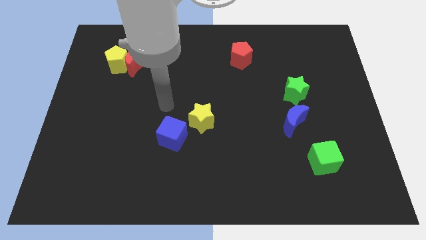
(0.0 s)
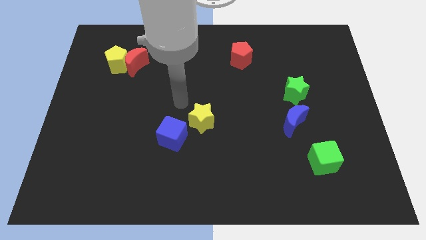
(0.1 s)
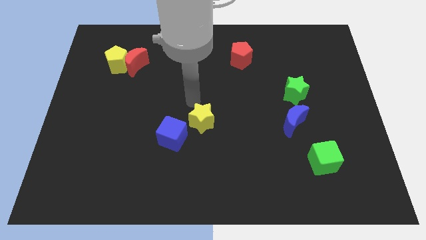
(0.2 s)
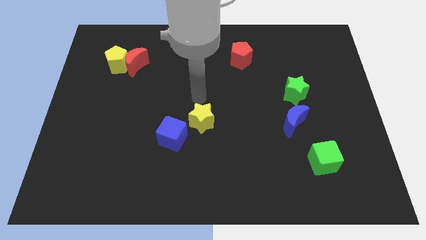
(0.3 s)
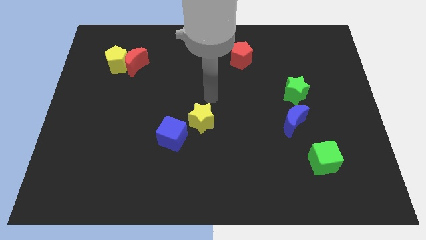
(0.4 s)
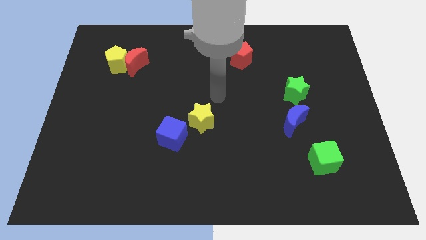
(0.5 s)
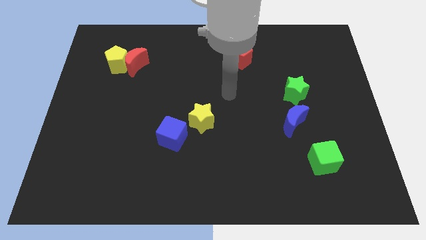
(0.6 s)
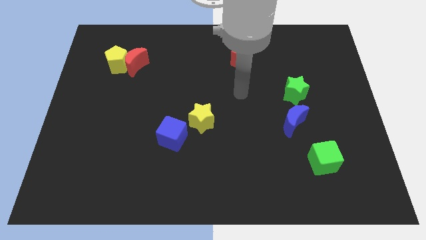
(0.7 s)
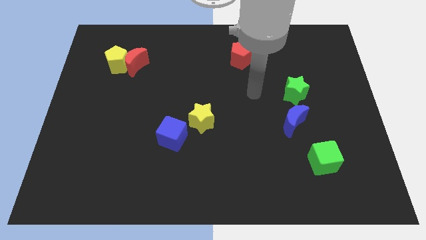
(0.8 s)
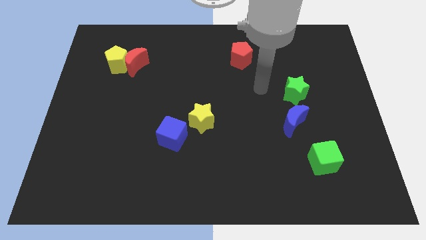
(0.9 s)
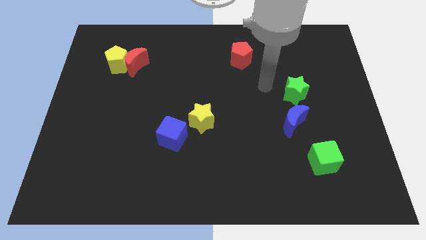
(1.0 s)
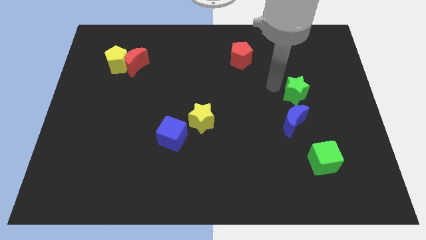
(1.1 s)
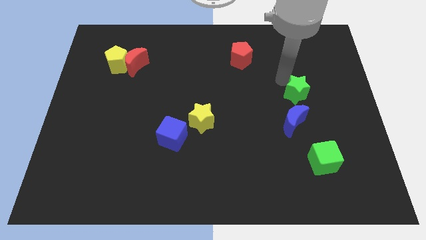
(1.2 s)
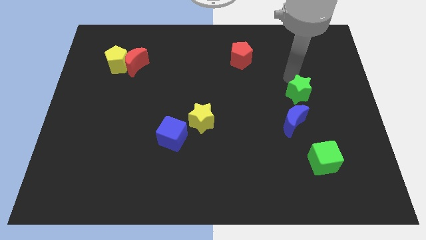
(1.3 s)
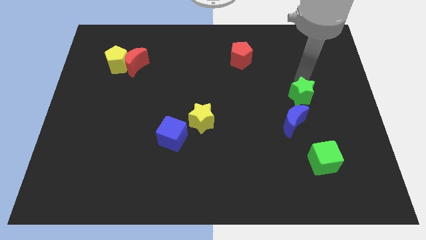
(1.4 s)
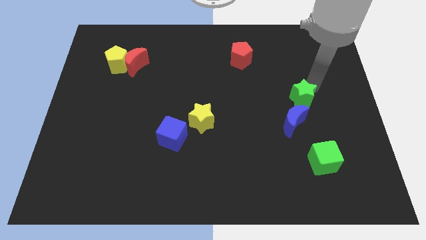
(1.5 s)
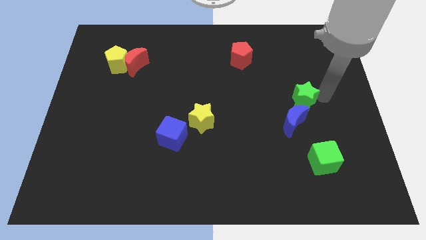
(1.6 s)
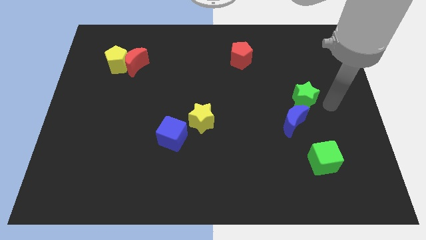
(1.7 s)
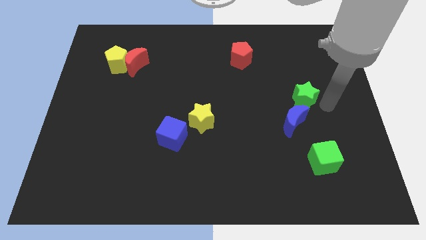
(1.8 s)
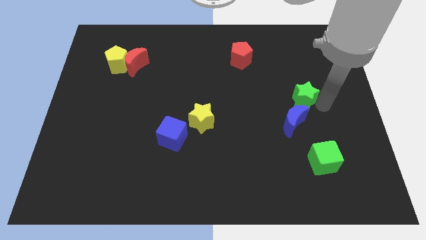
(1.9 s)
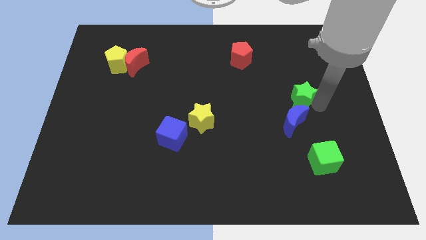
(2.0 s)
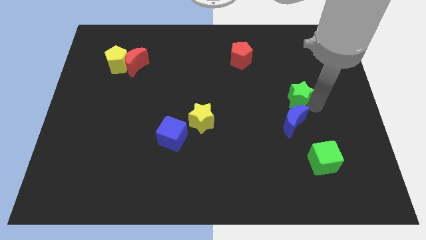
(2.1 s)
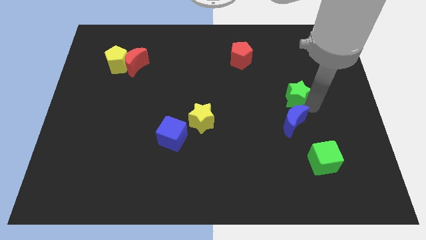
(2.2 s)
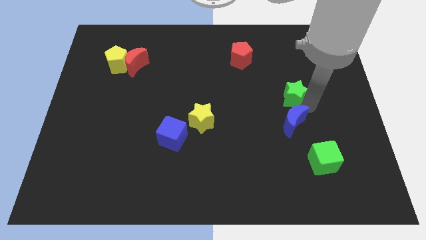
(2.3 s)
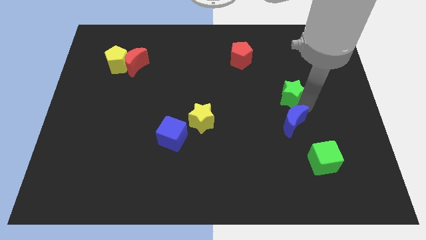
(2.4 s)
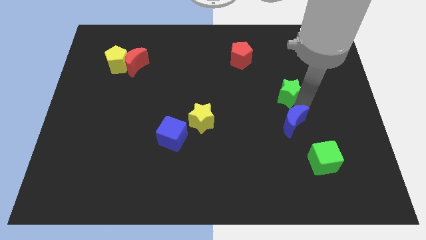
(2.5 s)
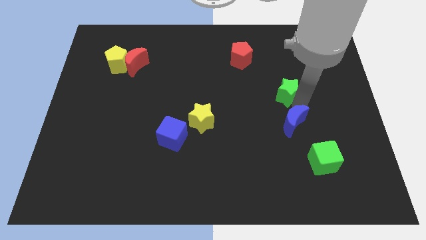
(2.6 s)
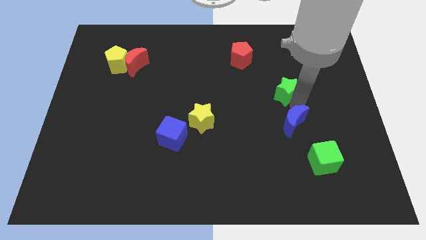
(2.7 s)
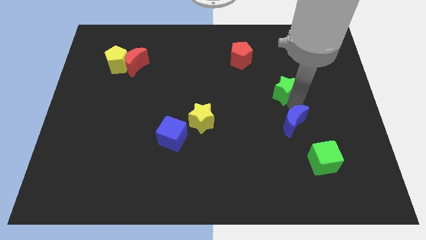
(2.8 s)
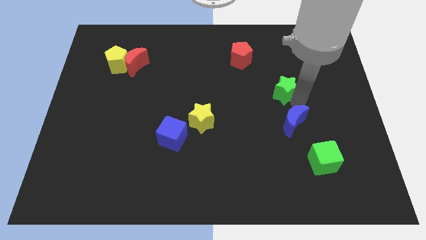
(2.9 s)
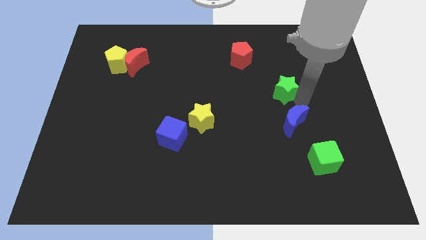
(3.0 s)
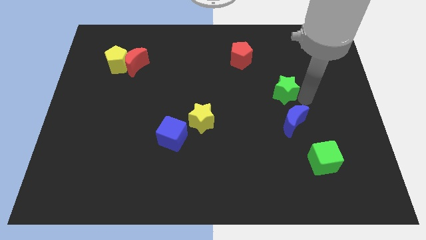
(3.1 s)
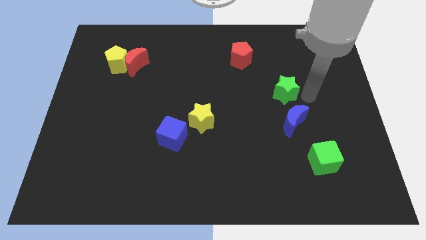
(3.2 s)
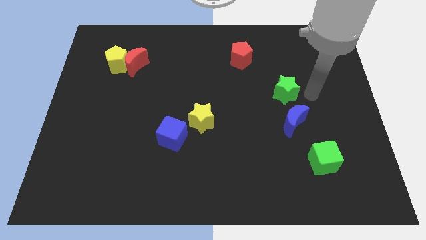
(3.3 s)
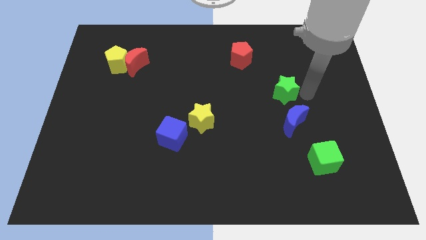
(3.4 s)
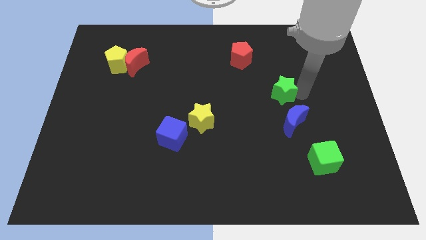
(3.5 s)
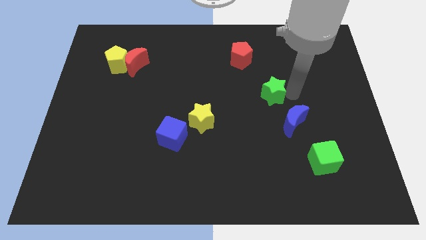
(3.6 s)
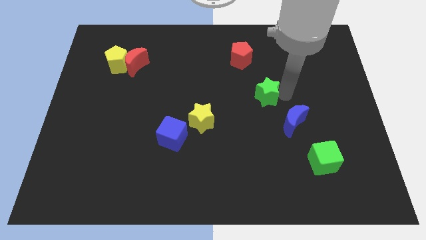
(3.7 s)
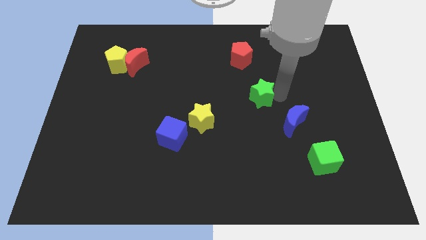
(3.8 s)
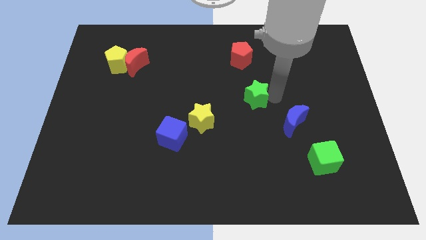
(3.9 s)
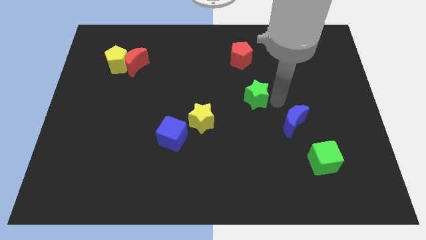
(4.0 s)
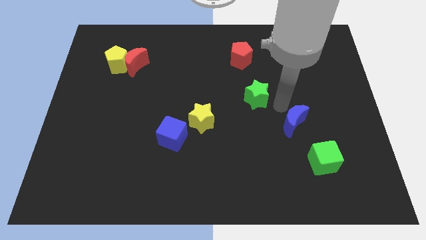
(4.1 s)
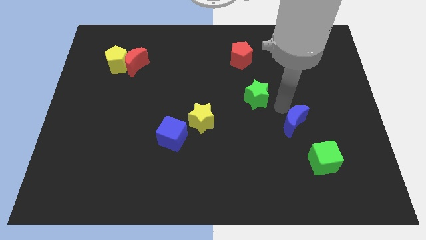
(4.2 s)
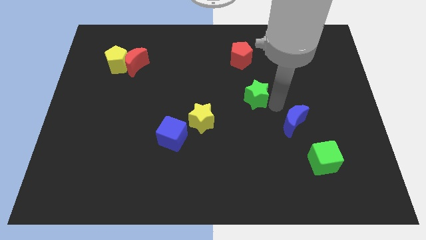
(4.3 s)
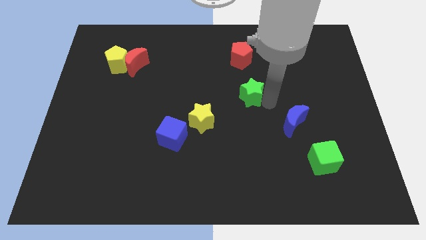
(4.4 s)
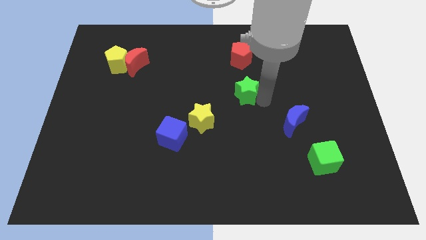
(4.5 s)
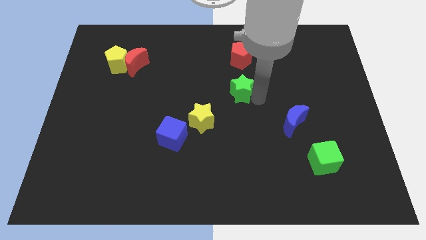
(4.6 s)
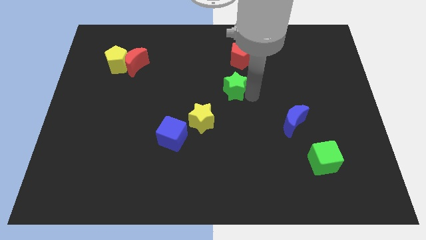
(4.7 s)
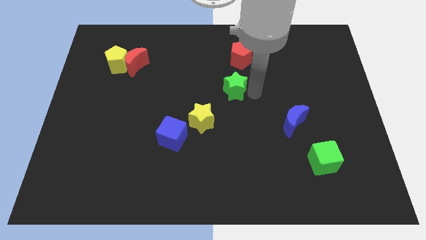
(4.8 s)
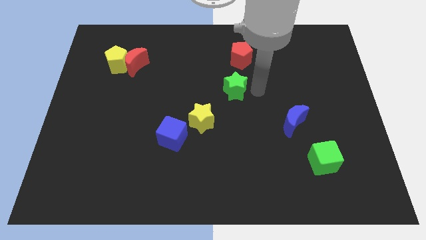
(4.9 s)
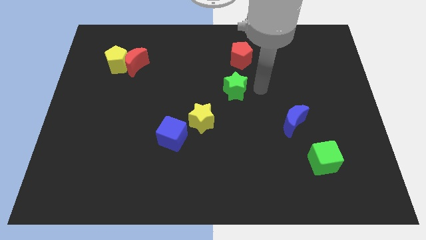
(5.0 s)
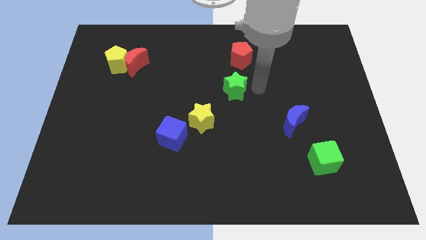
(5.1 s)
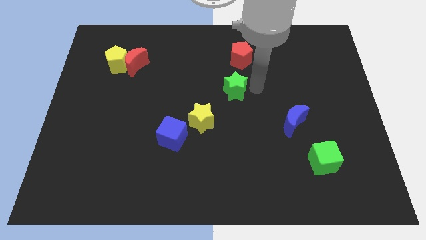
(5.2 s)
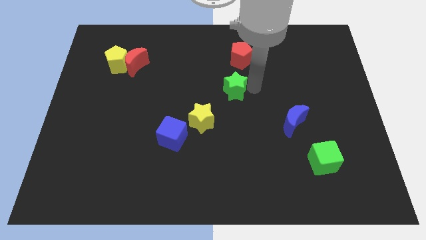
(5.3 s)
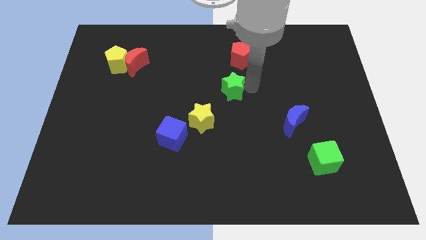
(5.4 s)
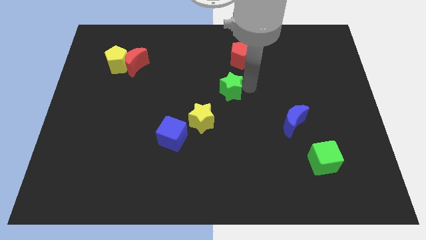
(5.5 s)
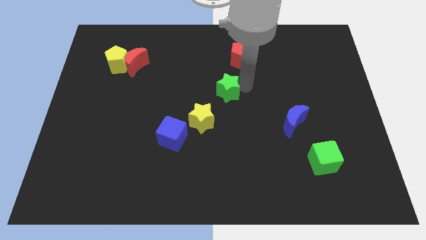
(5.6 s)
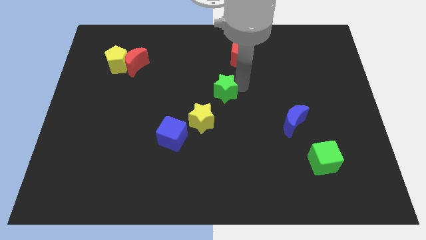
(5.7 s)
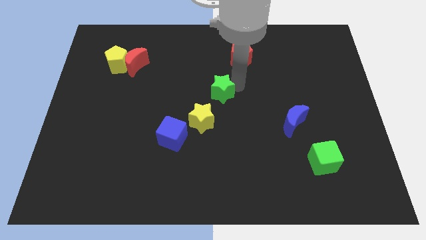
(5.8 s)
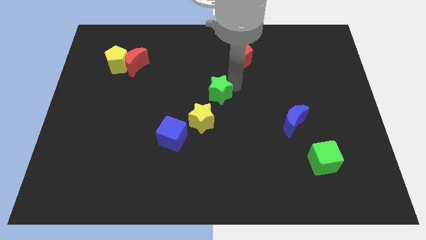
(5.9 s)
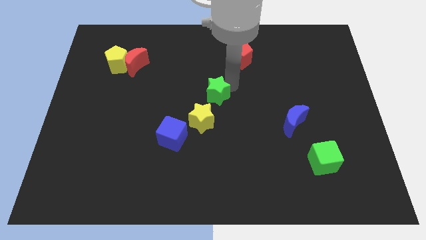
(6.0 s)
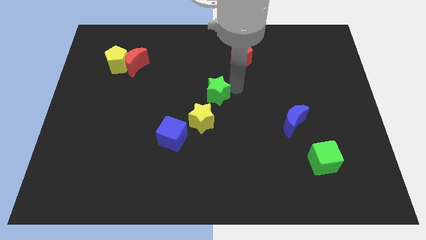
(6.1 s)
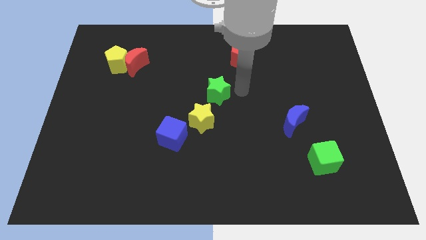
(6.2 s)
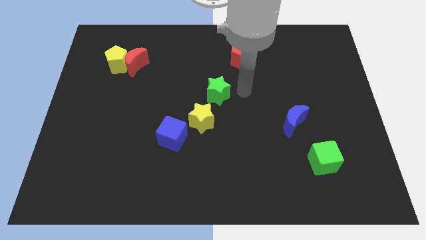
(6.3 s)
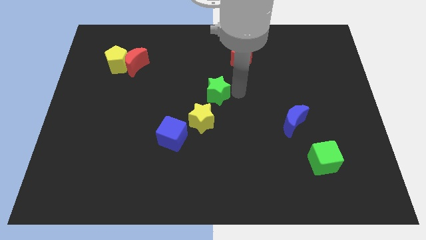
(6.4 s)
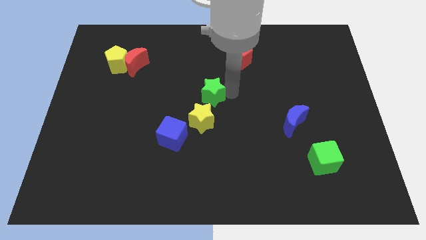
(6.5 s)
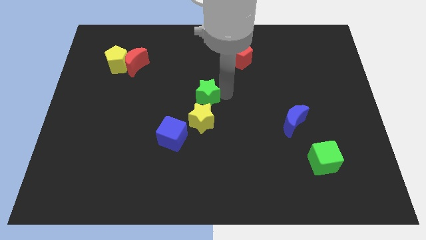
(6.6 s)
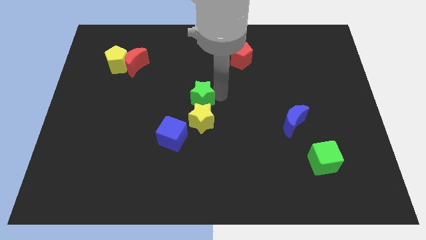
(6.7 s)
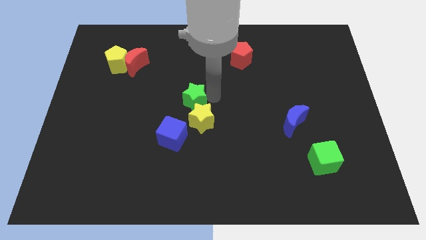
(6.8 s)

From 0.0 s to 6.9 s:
push the green star above the blue cube

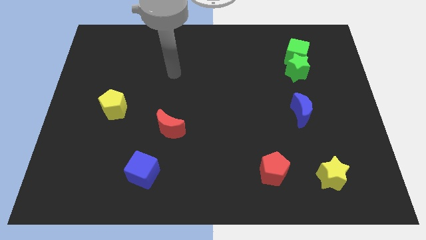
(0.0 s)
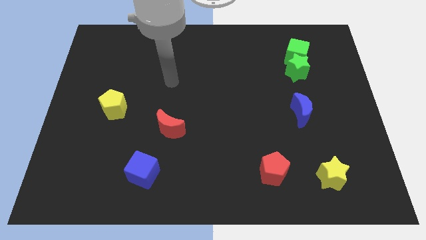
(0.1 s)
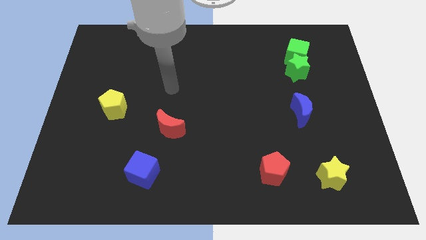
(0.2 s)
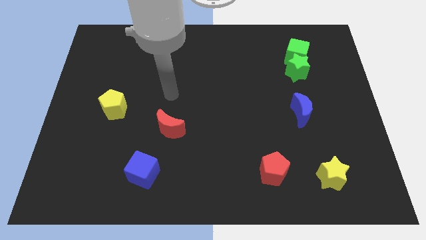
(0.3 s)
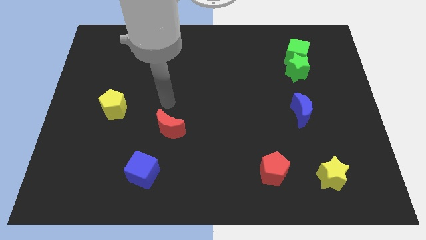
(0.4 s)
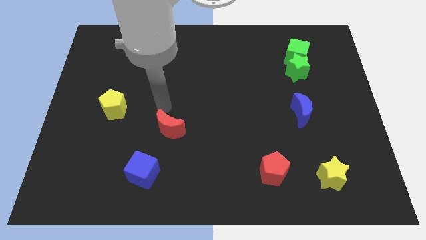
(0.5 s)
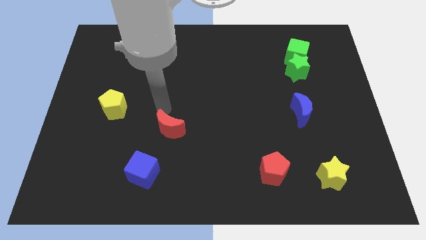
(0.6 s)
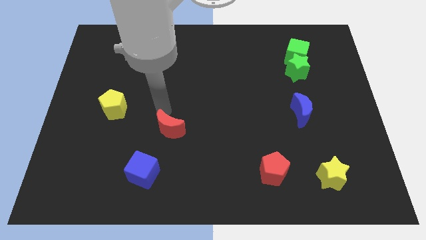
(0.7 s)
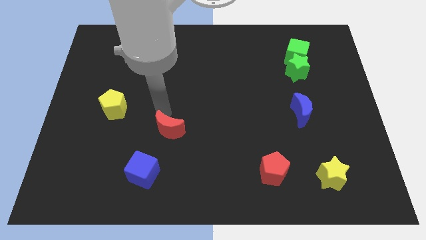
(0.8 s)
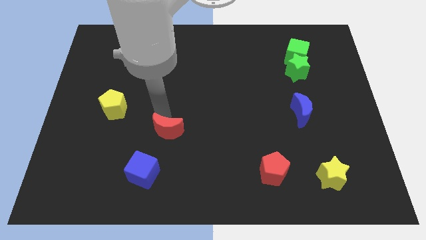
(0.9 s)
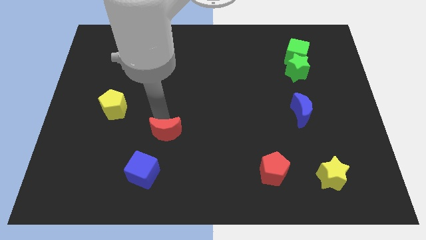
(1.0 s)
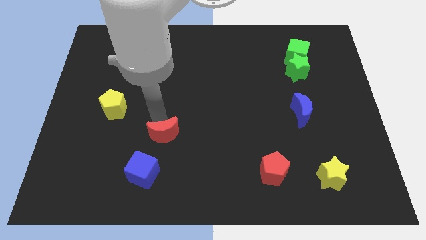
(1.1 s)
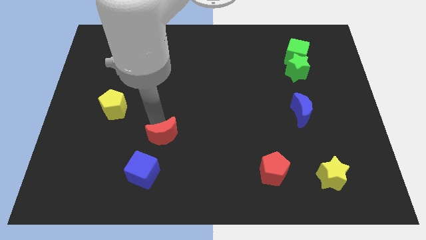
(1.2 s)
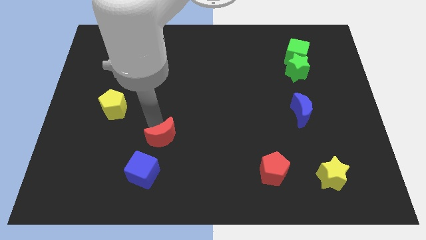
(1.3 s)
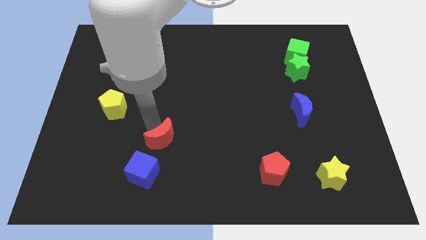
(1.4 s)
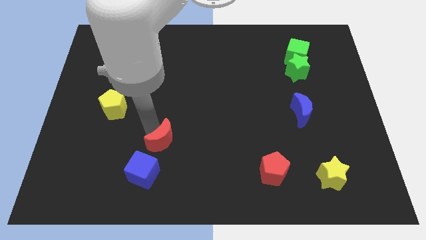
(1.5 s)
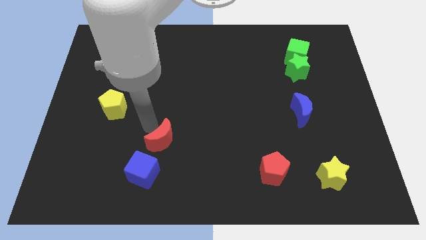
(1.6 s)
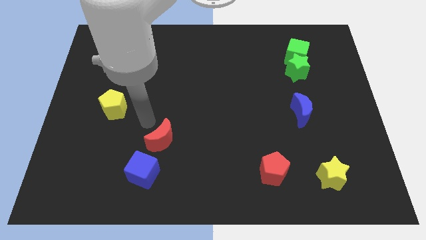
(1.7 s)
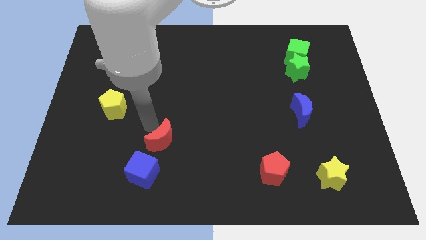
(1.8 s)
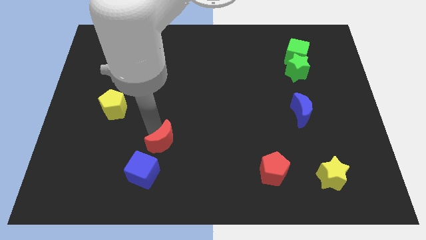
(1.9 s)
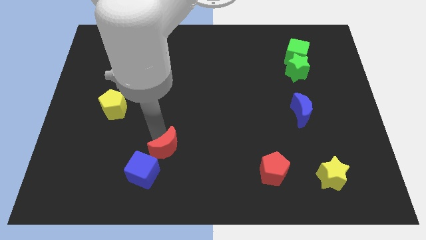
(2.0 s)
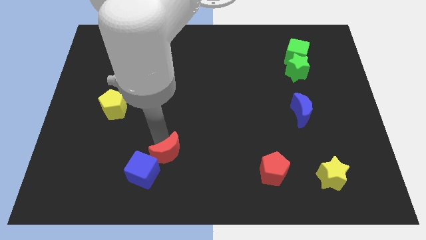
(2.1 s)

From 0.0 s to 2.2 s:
slide the red moon to the right side of the blue cube
